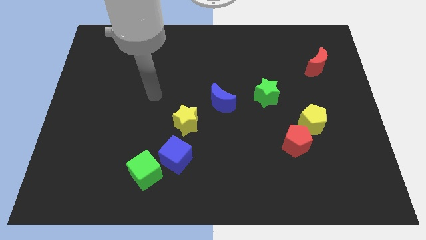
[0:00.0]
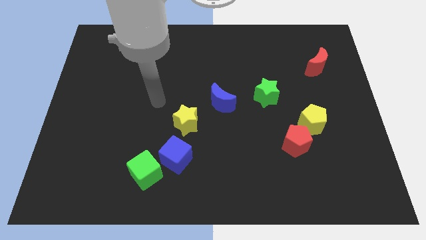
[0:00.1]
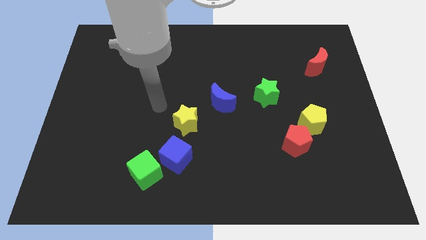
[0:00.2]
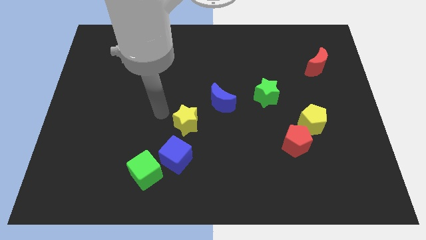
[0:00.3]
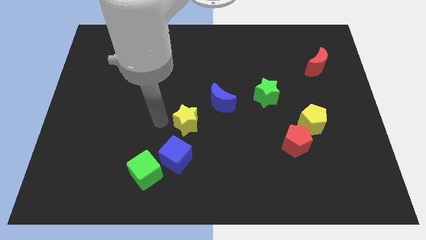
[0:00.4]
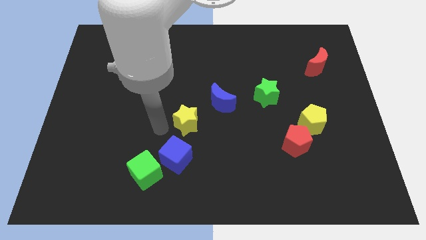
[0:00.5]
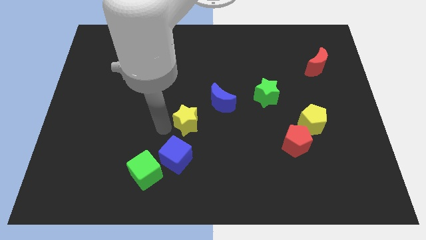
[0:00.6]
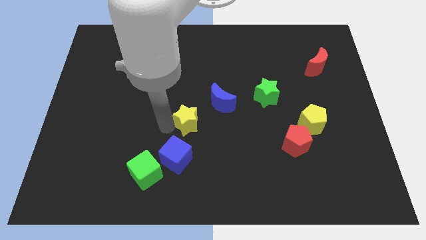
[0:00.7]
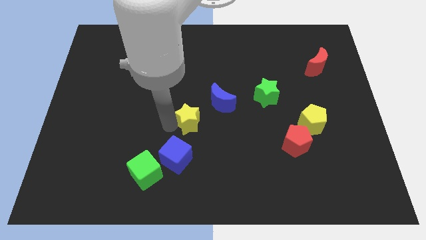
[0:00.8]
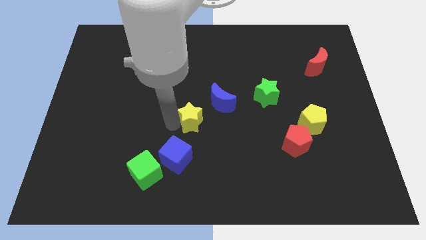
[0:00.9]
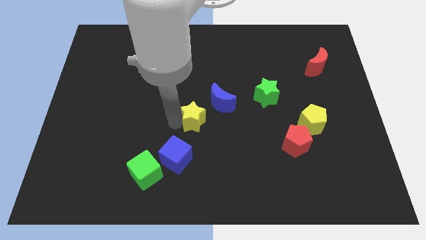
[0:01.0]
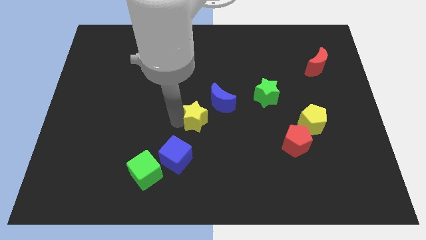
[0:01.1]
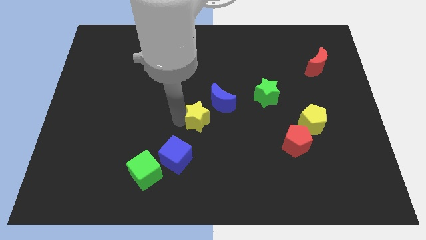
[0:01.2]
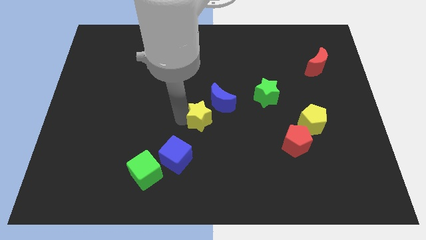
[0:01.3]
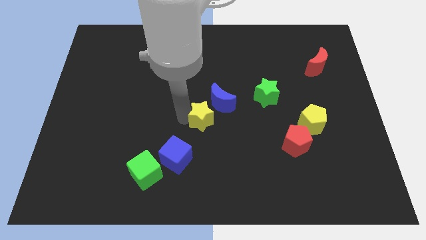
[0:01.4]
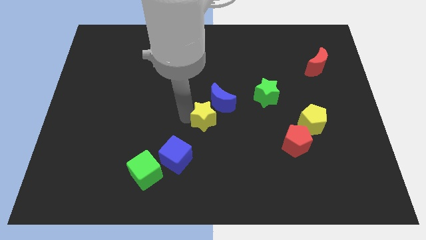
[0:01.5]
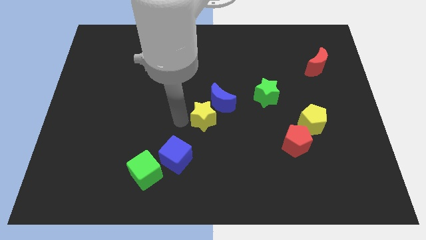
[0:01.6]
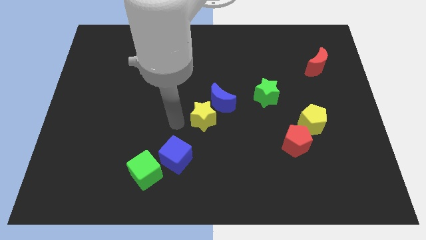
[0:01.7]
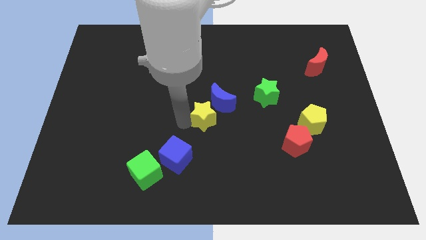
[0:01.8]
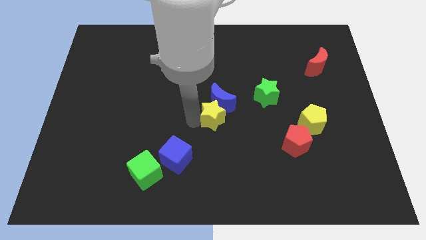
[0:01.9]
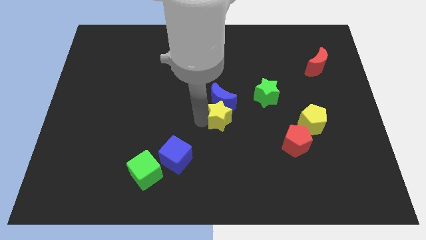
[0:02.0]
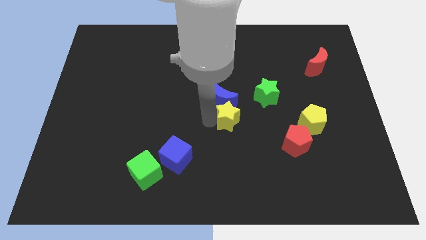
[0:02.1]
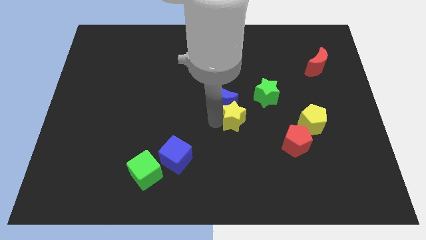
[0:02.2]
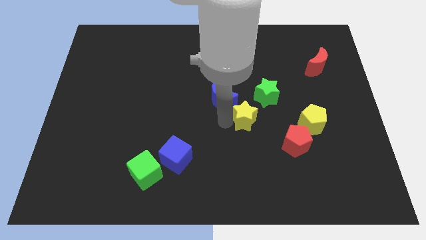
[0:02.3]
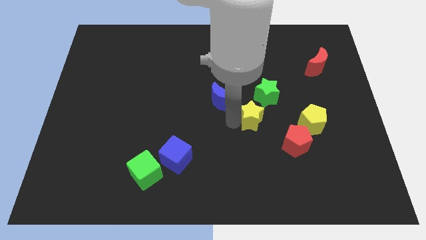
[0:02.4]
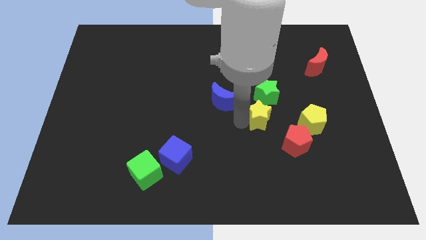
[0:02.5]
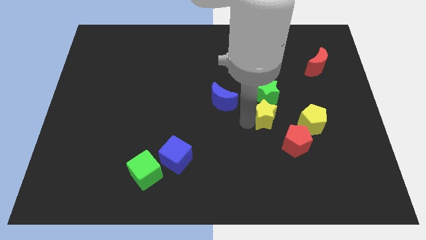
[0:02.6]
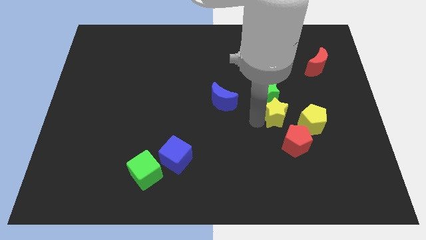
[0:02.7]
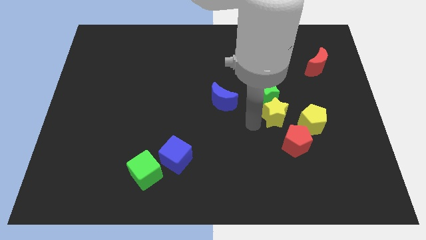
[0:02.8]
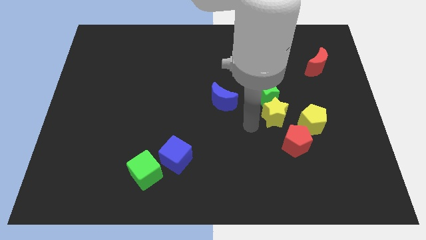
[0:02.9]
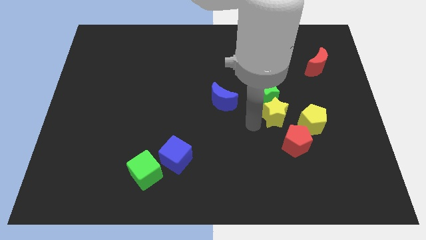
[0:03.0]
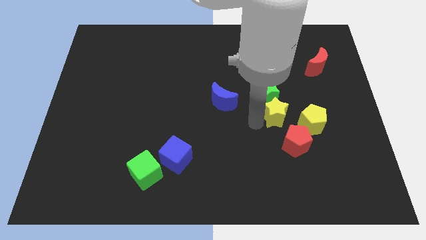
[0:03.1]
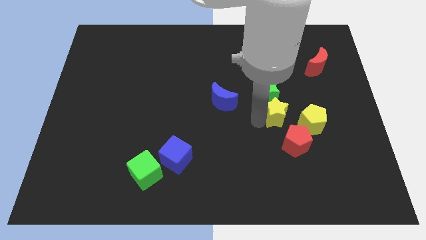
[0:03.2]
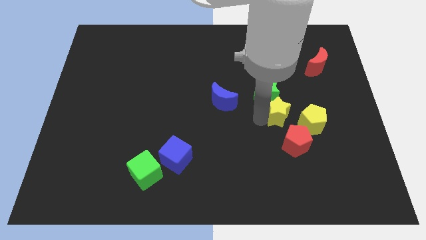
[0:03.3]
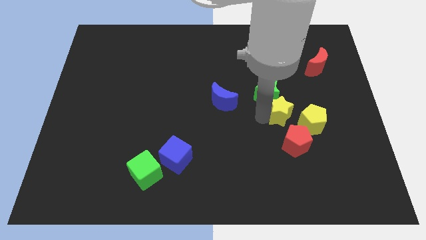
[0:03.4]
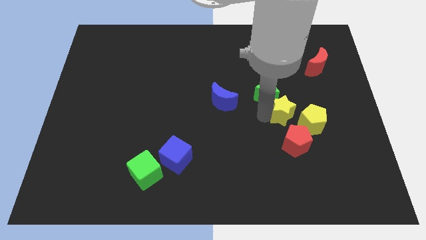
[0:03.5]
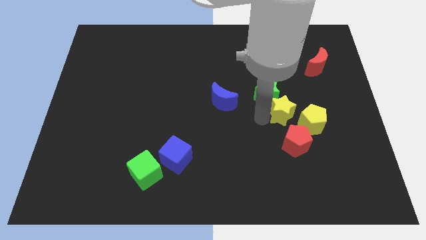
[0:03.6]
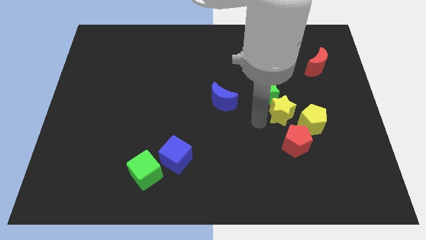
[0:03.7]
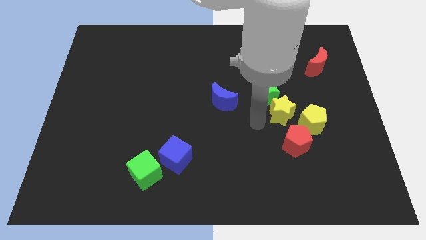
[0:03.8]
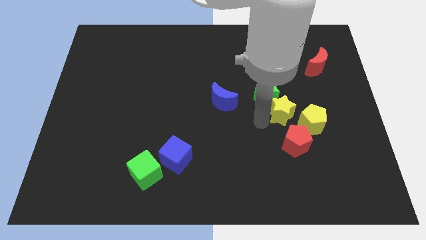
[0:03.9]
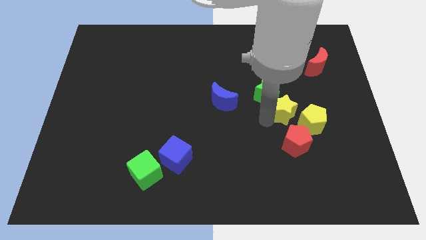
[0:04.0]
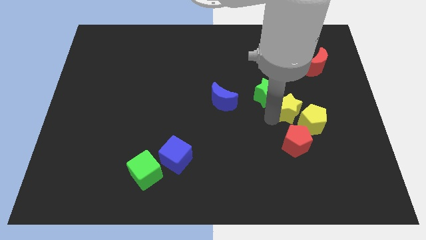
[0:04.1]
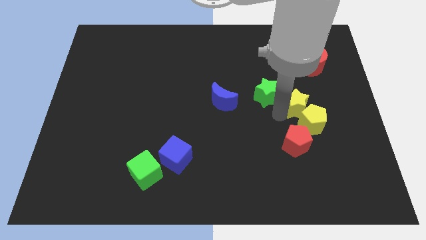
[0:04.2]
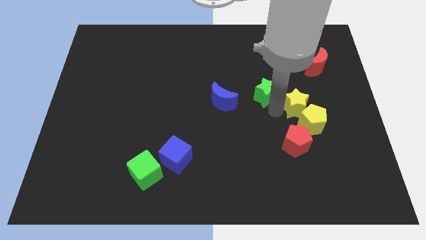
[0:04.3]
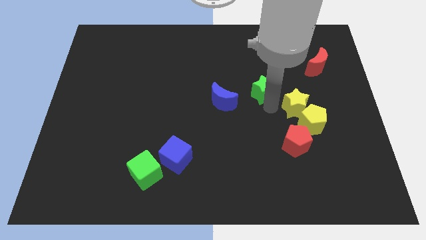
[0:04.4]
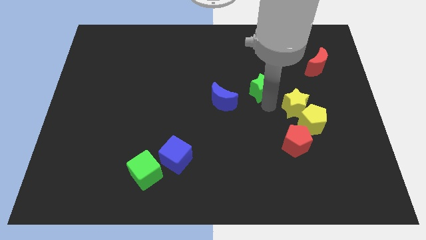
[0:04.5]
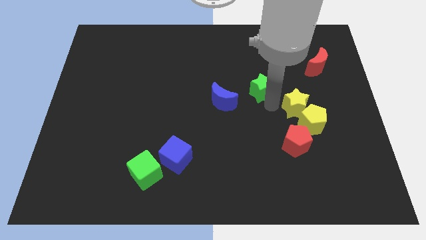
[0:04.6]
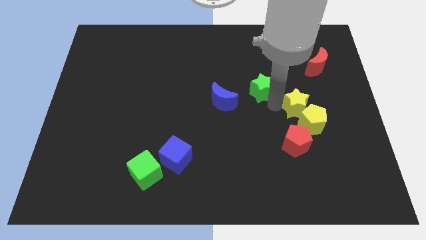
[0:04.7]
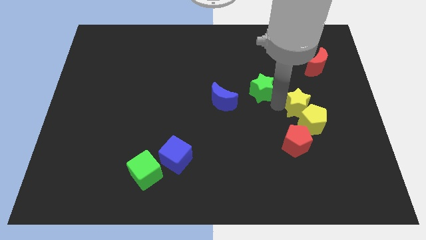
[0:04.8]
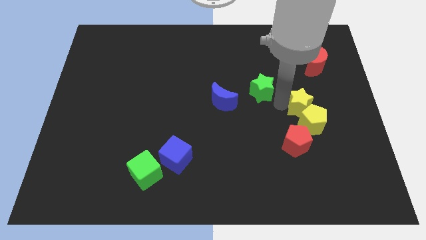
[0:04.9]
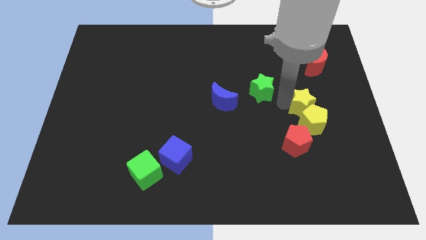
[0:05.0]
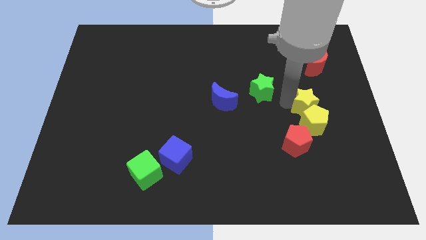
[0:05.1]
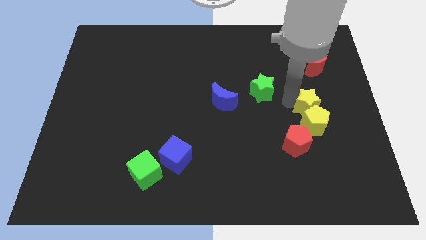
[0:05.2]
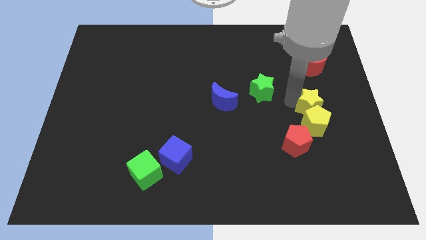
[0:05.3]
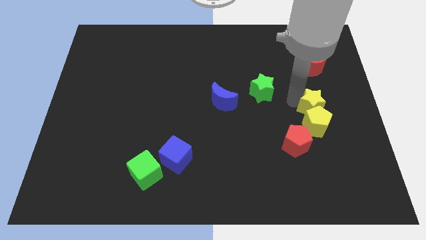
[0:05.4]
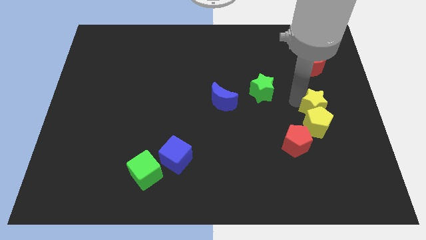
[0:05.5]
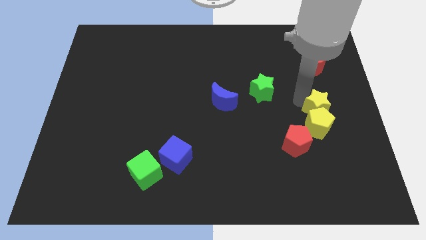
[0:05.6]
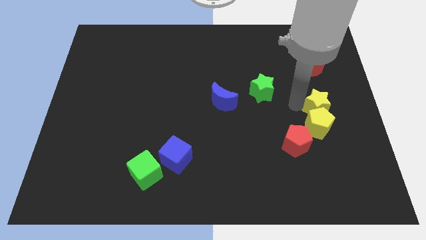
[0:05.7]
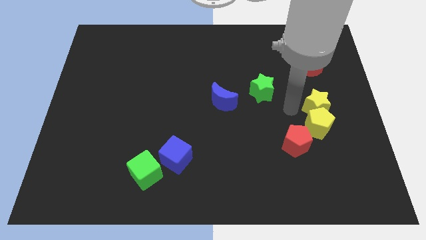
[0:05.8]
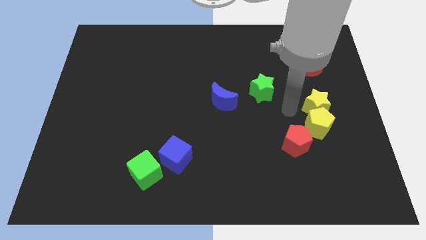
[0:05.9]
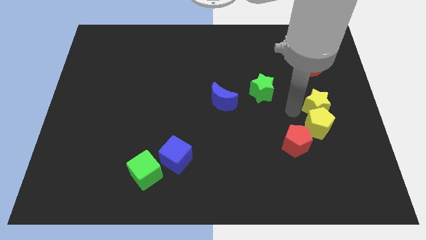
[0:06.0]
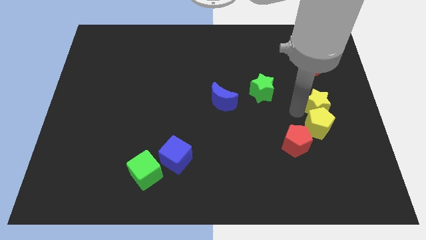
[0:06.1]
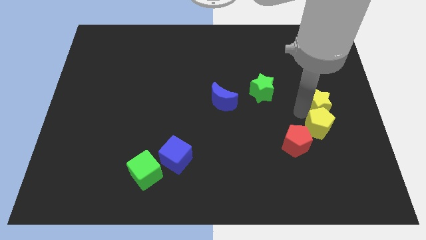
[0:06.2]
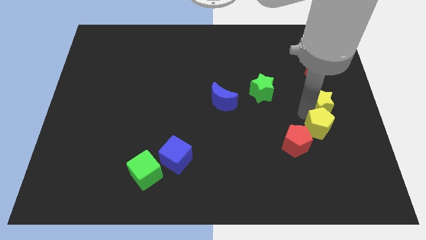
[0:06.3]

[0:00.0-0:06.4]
push the yellow star to the right side of the board
